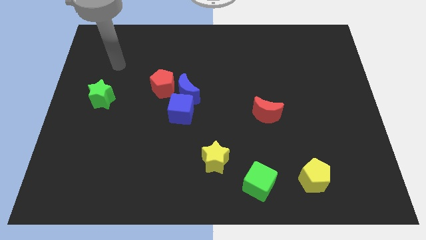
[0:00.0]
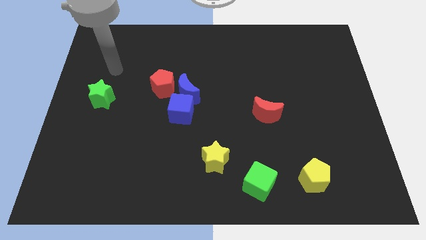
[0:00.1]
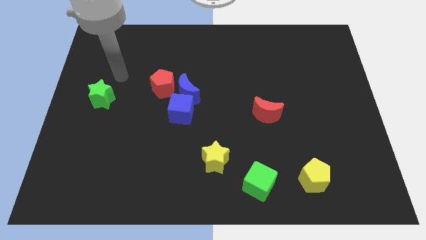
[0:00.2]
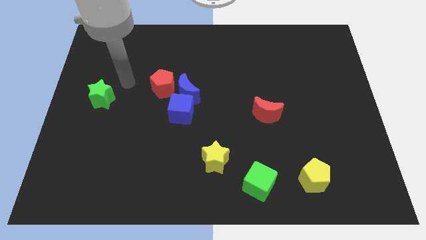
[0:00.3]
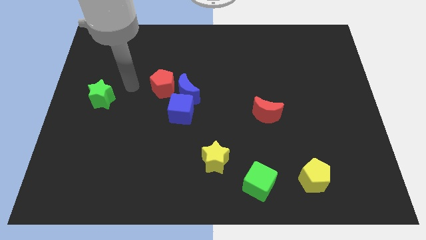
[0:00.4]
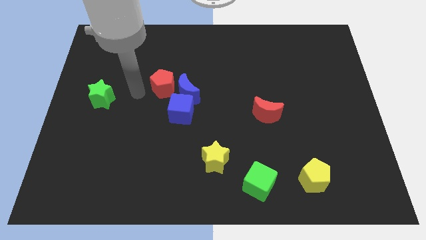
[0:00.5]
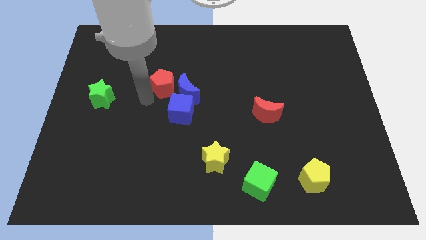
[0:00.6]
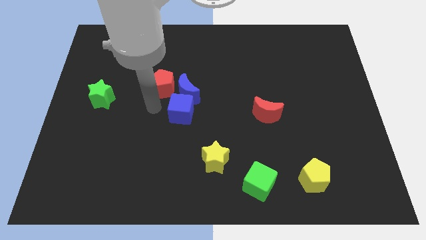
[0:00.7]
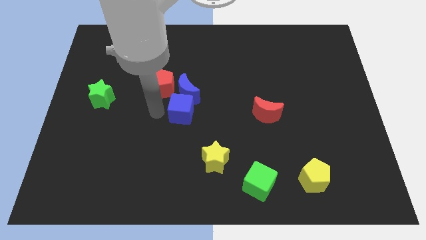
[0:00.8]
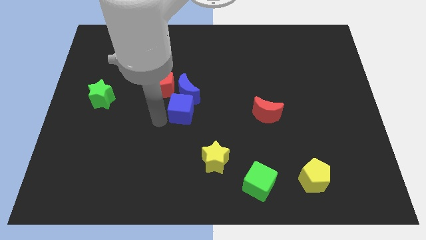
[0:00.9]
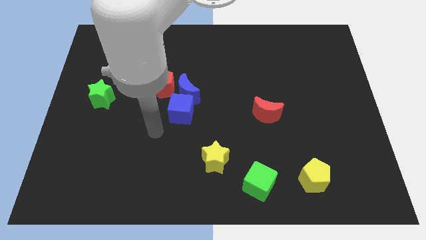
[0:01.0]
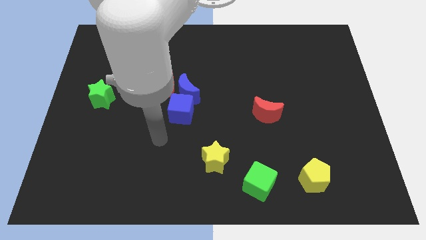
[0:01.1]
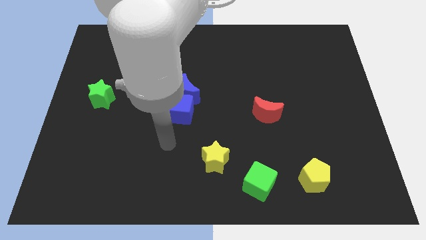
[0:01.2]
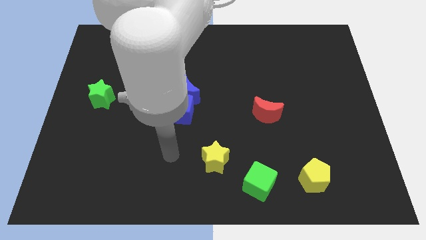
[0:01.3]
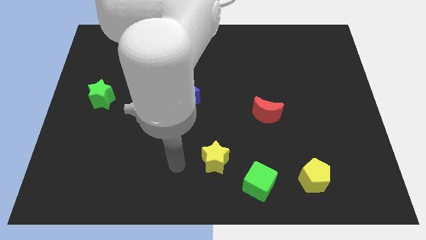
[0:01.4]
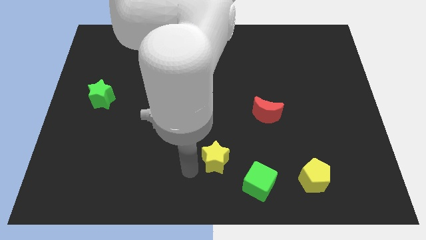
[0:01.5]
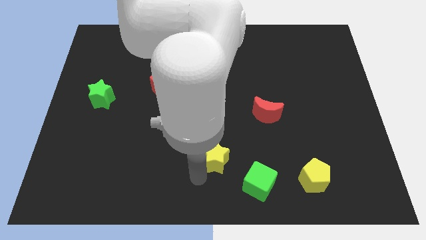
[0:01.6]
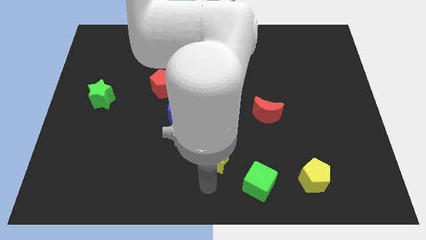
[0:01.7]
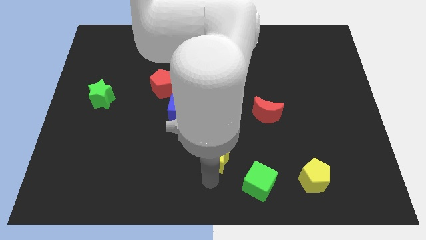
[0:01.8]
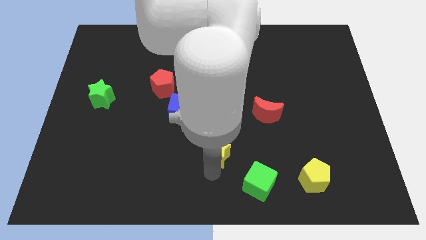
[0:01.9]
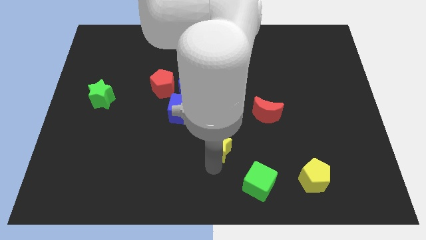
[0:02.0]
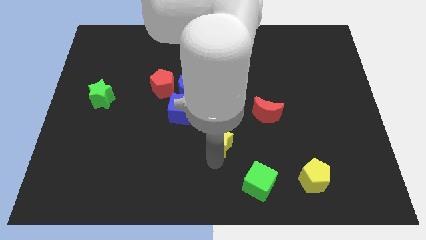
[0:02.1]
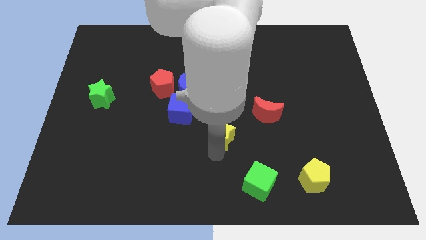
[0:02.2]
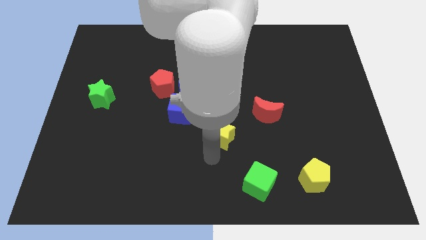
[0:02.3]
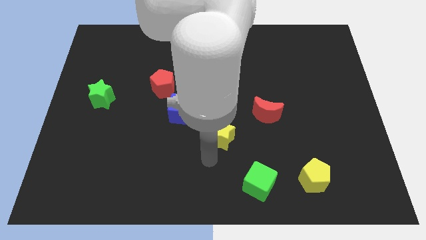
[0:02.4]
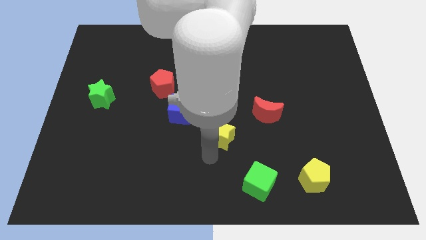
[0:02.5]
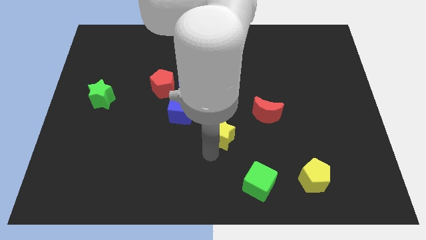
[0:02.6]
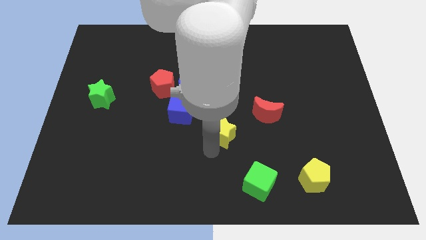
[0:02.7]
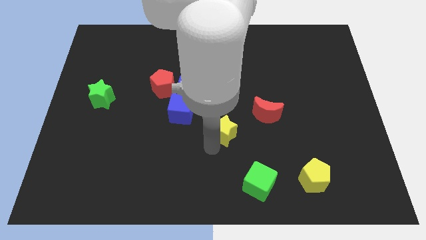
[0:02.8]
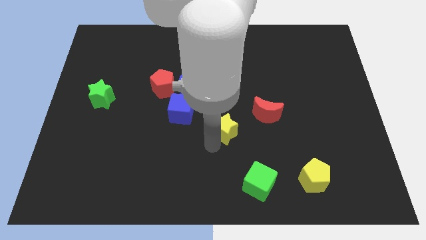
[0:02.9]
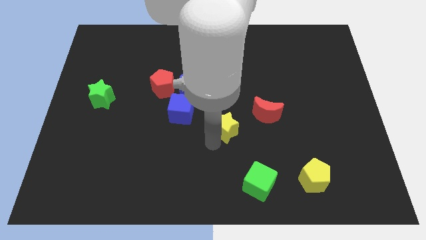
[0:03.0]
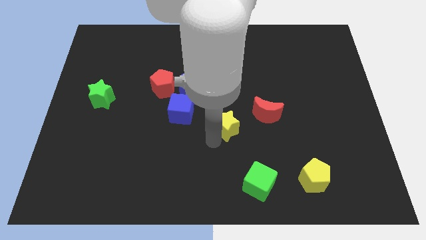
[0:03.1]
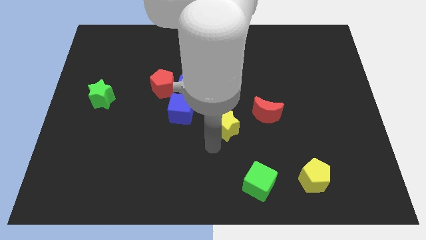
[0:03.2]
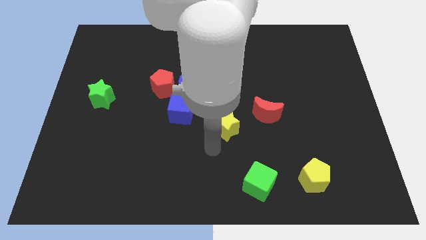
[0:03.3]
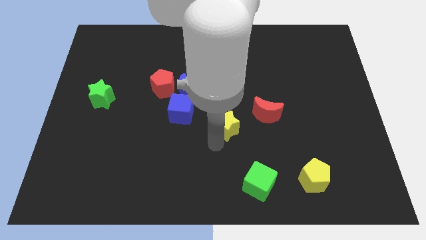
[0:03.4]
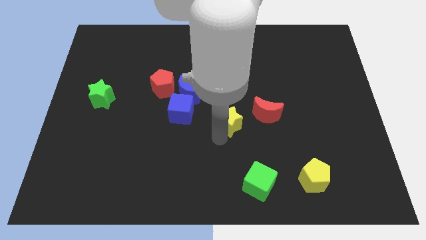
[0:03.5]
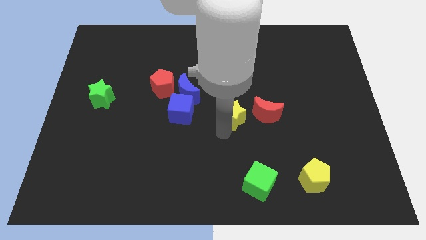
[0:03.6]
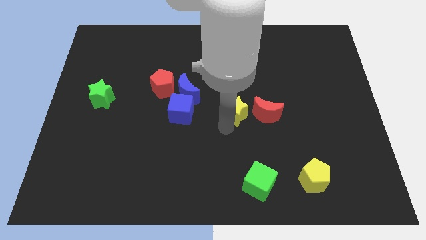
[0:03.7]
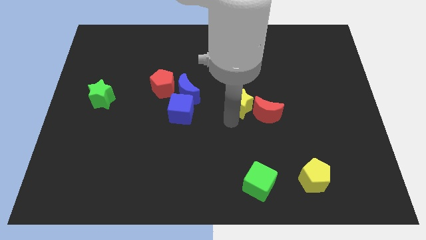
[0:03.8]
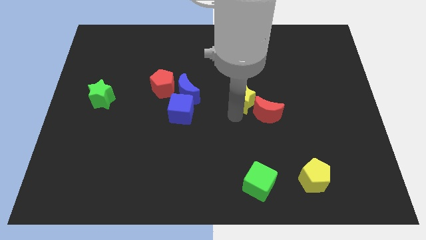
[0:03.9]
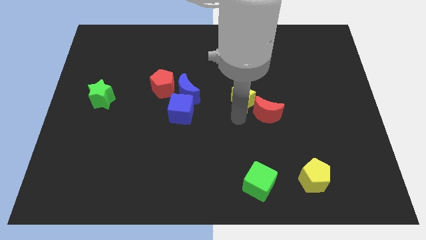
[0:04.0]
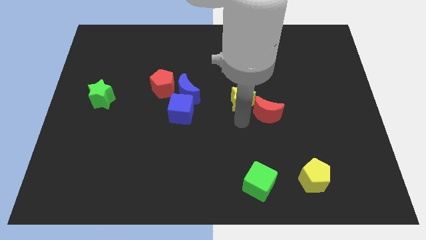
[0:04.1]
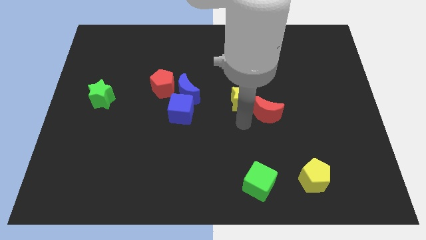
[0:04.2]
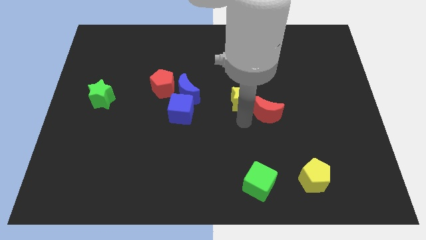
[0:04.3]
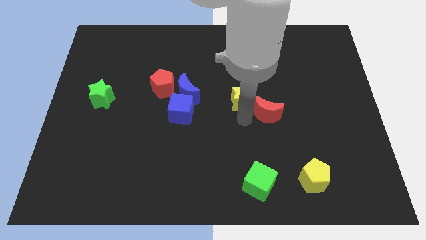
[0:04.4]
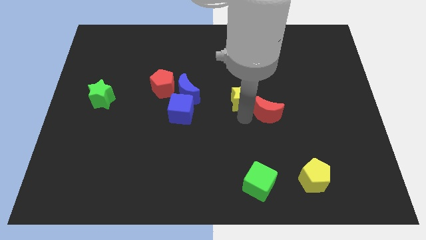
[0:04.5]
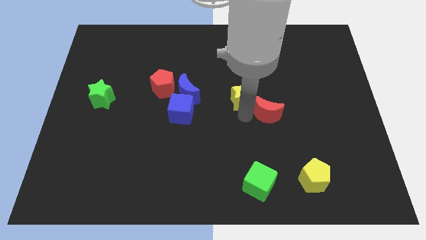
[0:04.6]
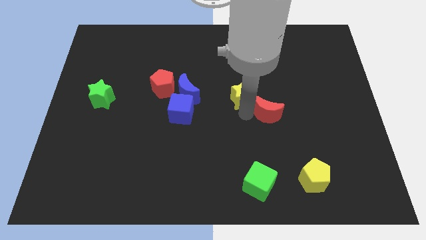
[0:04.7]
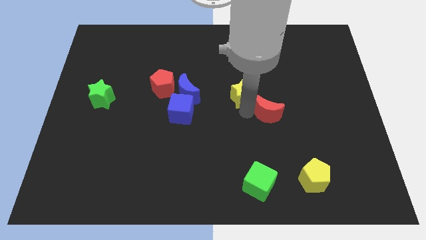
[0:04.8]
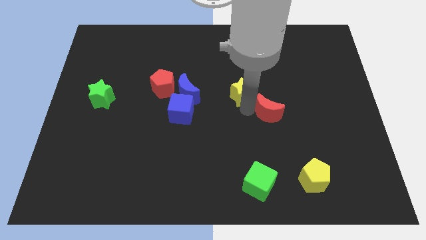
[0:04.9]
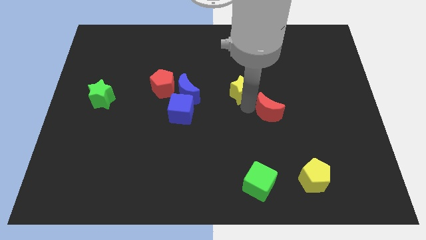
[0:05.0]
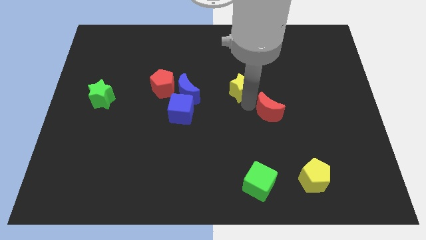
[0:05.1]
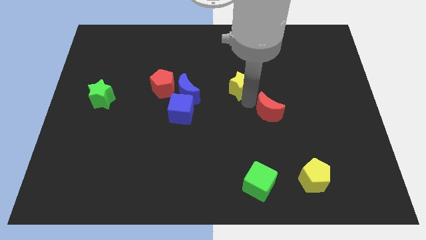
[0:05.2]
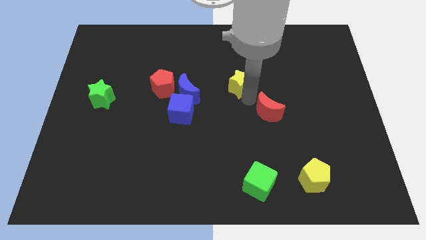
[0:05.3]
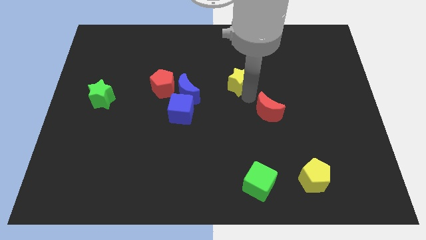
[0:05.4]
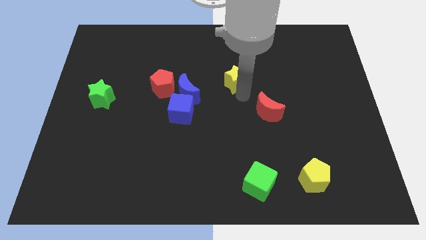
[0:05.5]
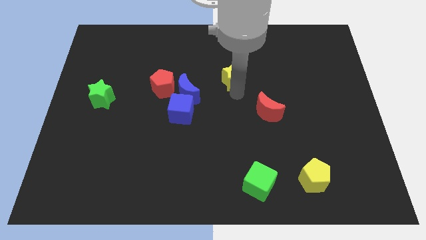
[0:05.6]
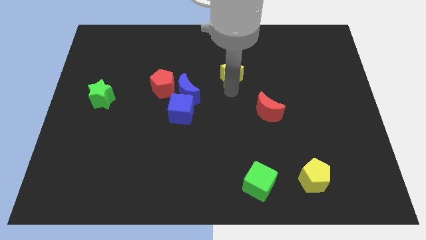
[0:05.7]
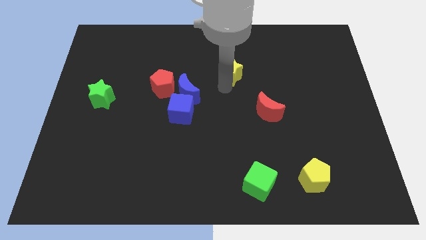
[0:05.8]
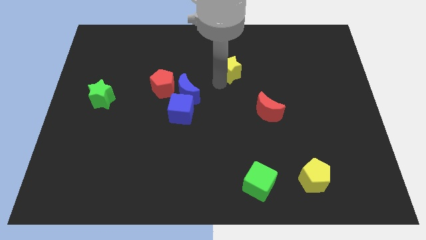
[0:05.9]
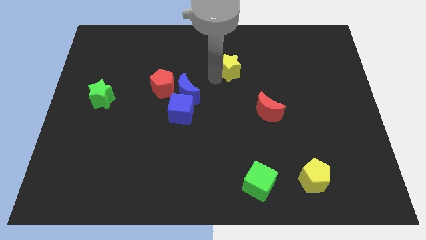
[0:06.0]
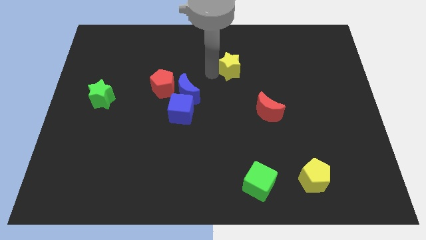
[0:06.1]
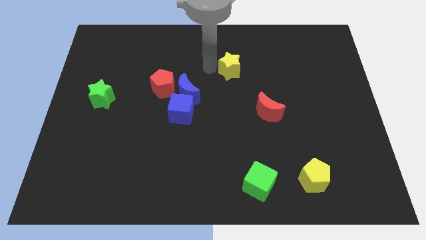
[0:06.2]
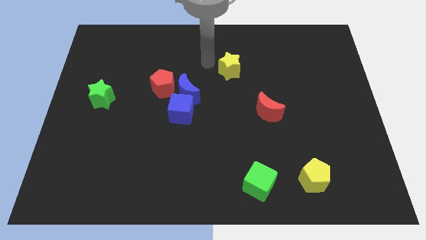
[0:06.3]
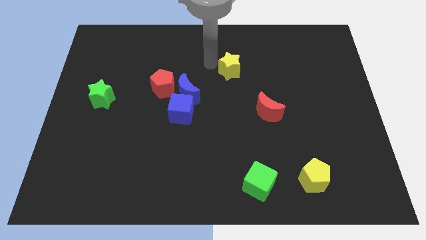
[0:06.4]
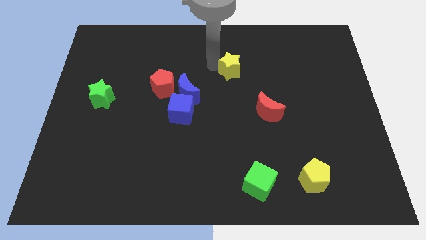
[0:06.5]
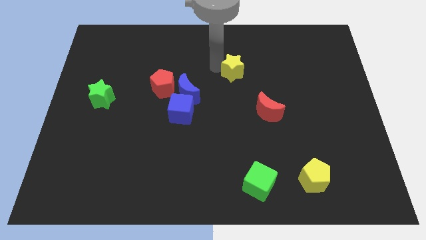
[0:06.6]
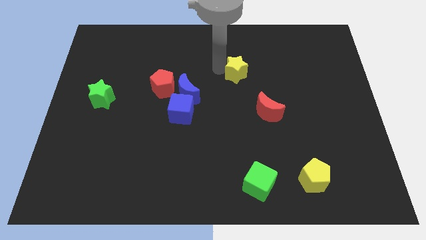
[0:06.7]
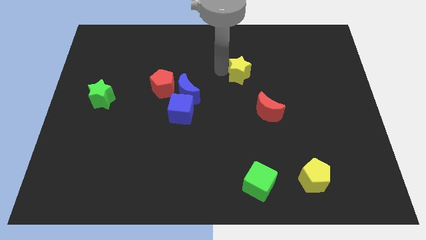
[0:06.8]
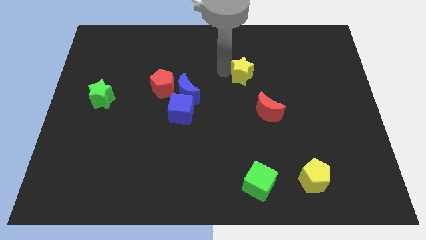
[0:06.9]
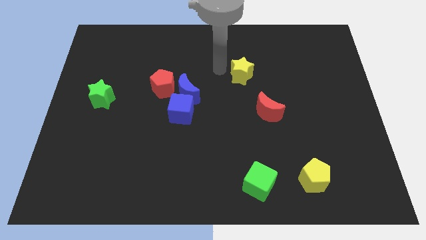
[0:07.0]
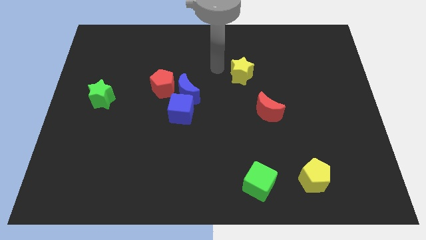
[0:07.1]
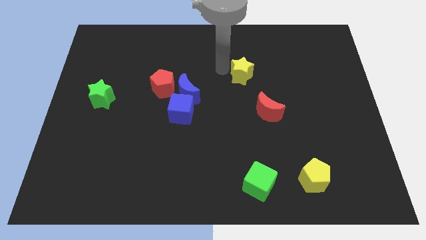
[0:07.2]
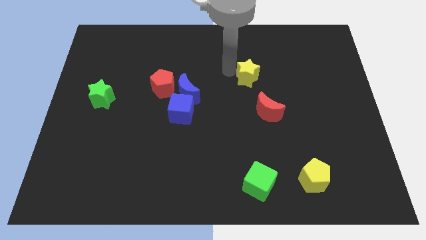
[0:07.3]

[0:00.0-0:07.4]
slide the yellow star to the top of the red moon
